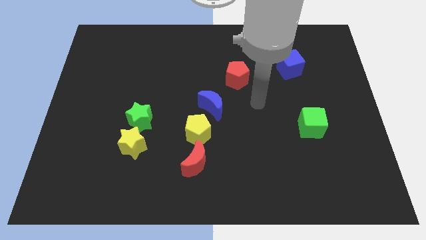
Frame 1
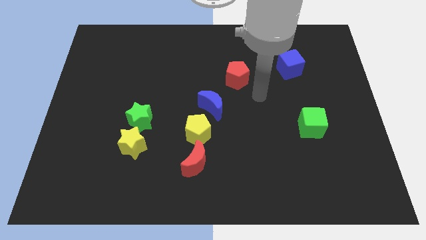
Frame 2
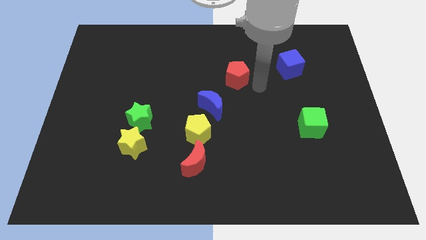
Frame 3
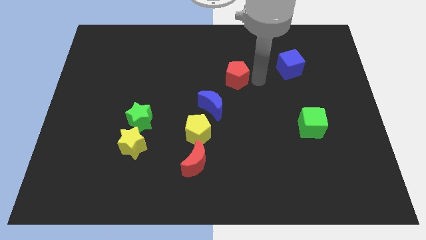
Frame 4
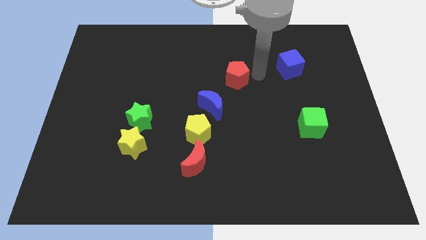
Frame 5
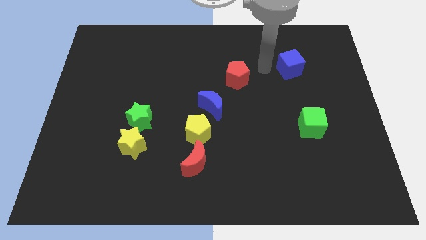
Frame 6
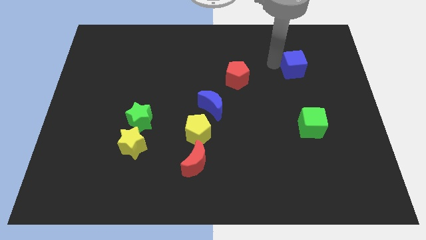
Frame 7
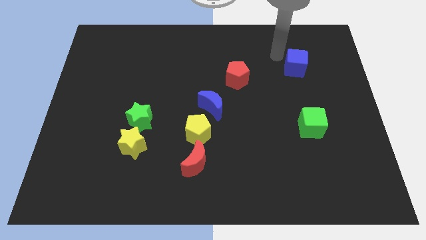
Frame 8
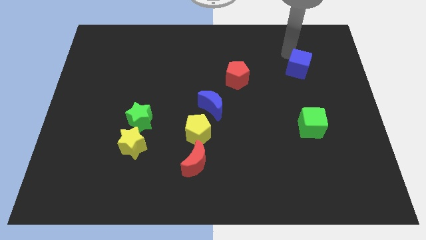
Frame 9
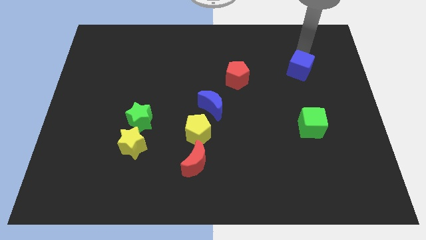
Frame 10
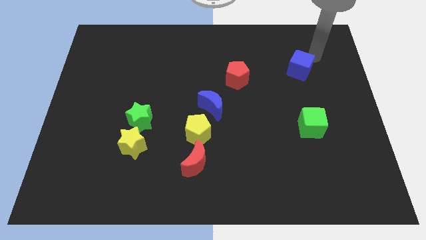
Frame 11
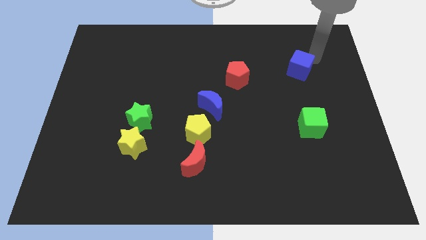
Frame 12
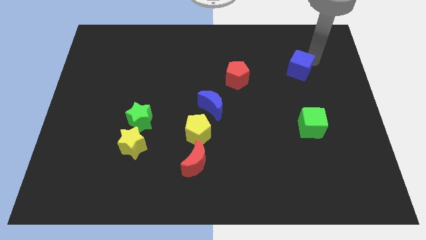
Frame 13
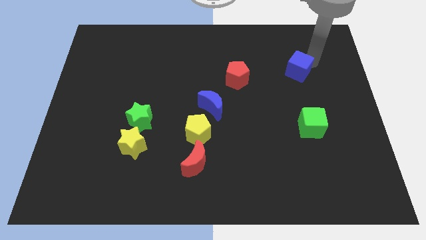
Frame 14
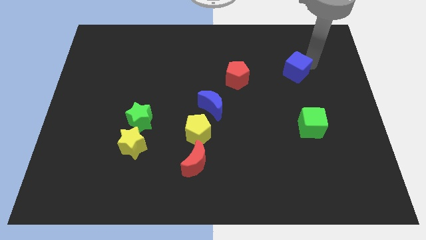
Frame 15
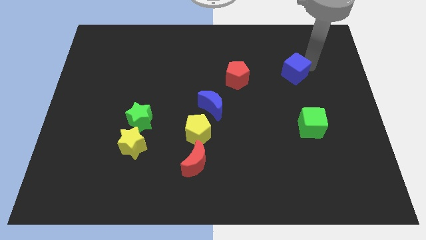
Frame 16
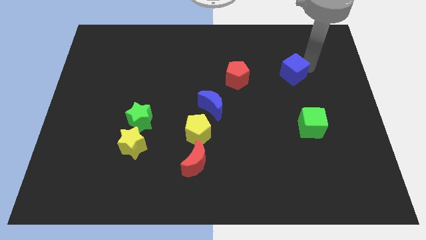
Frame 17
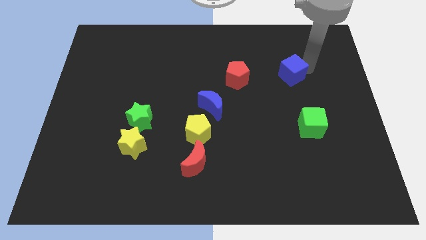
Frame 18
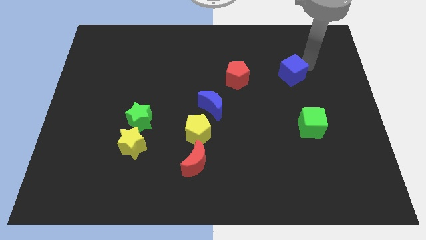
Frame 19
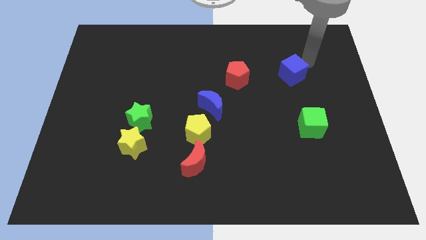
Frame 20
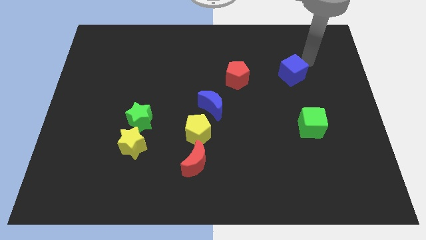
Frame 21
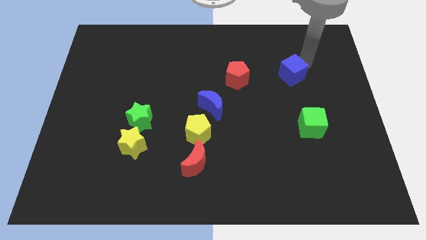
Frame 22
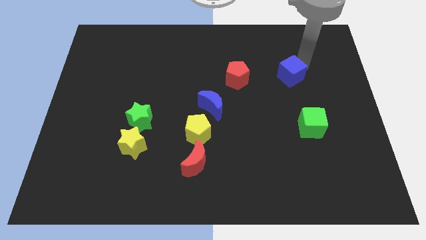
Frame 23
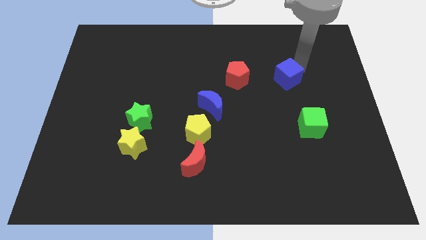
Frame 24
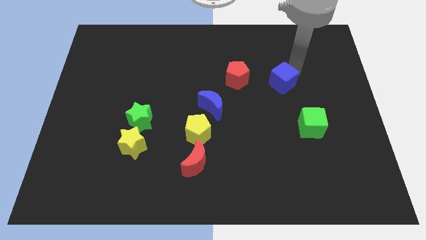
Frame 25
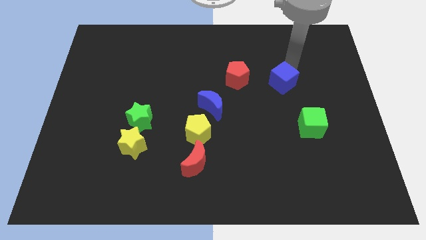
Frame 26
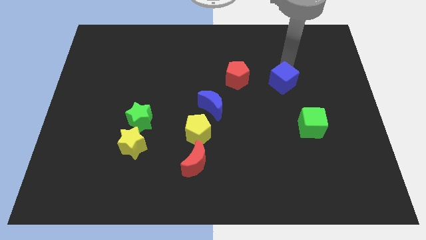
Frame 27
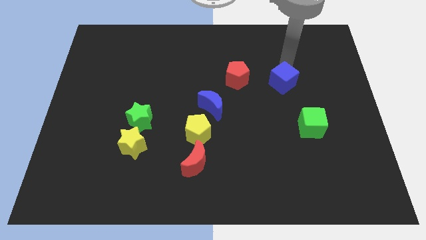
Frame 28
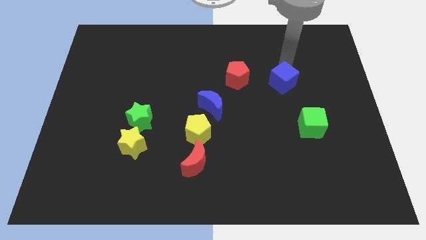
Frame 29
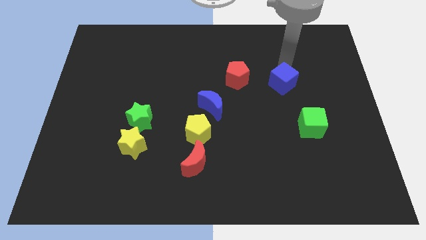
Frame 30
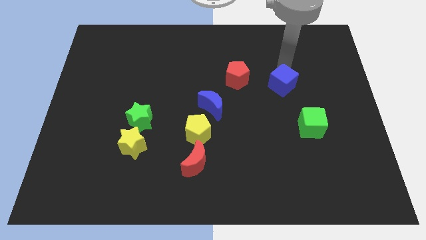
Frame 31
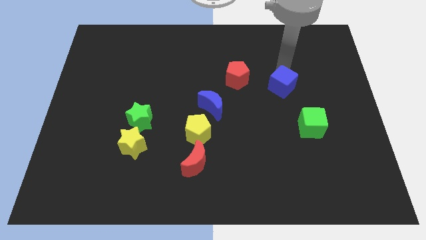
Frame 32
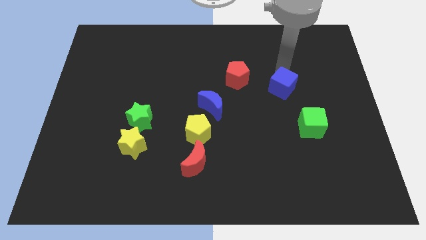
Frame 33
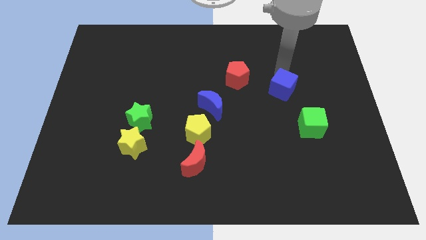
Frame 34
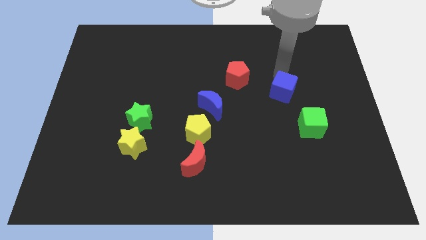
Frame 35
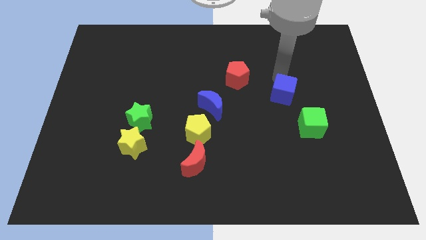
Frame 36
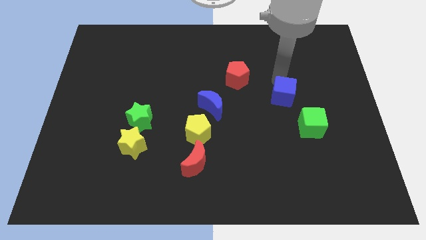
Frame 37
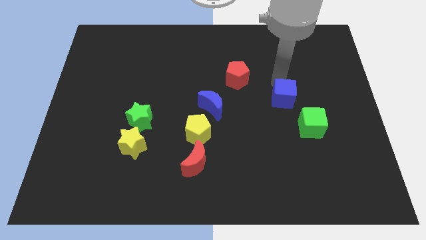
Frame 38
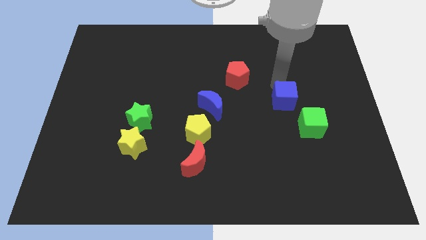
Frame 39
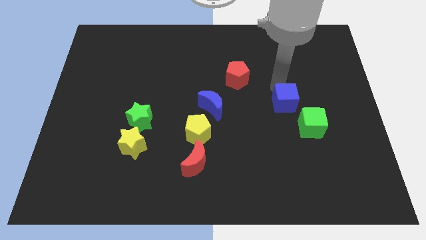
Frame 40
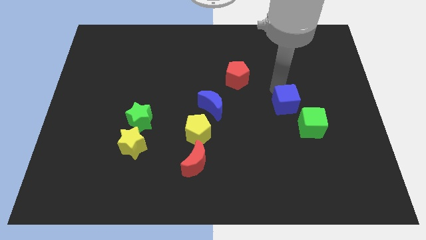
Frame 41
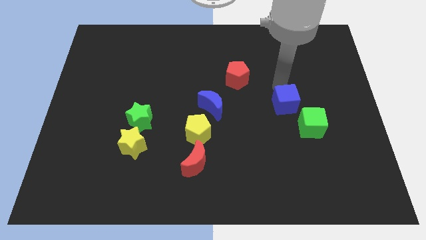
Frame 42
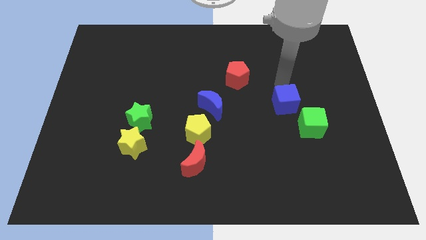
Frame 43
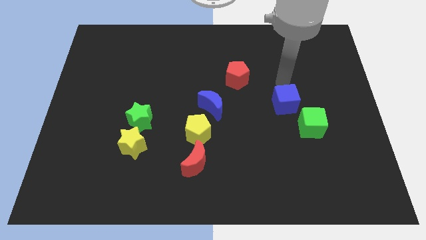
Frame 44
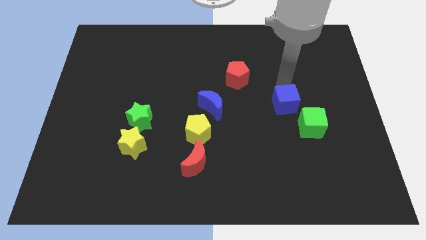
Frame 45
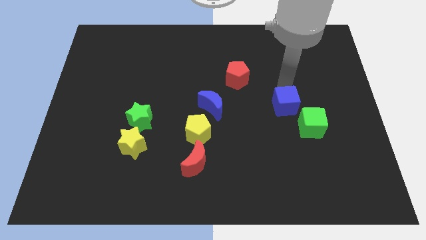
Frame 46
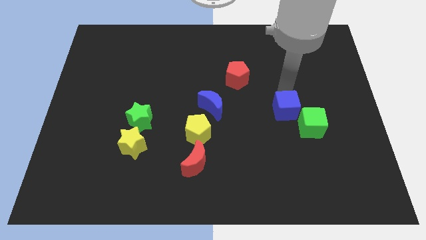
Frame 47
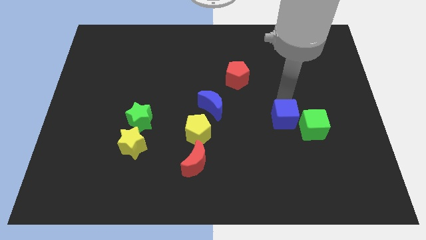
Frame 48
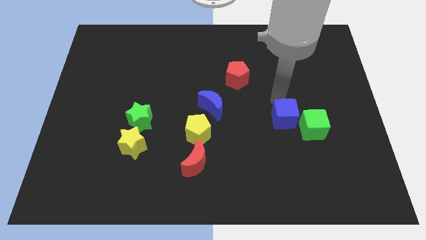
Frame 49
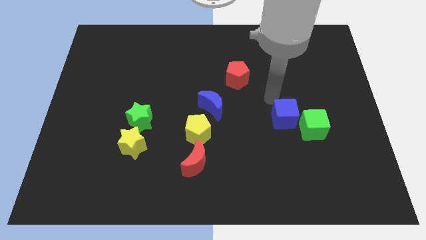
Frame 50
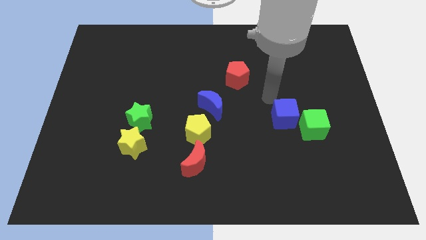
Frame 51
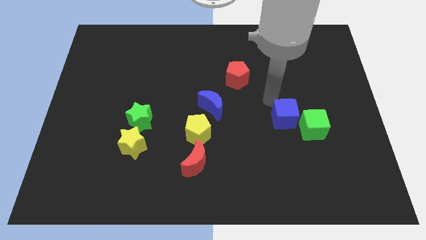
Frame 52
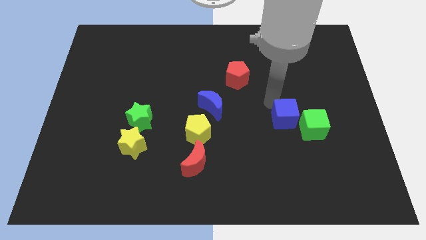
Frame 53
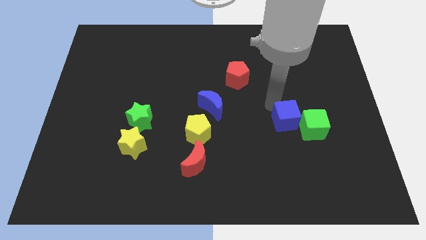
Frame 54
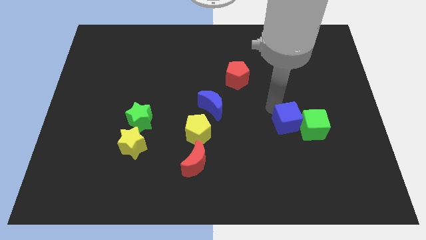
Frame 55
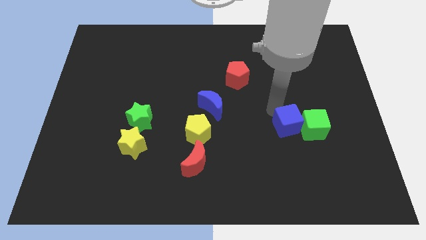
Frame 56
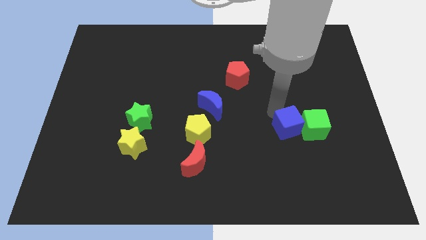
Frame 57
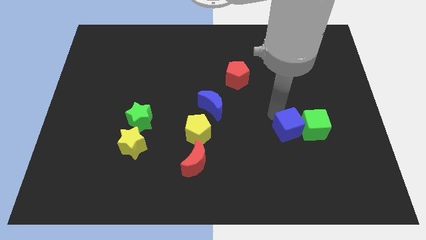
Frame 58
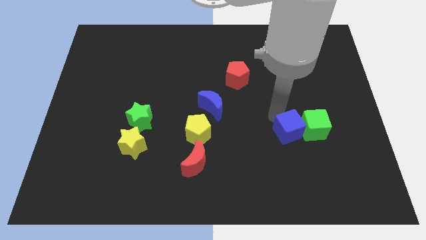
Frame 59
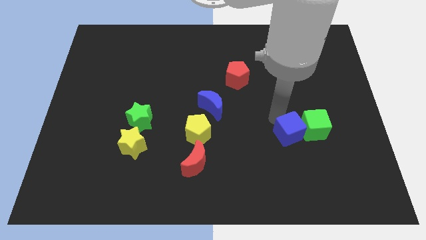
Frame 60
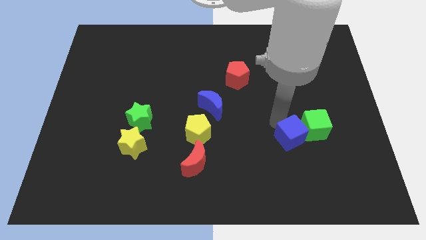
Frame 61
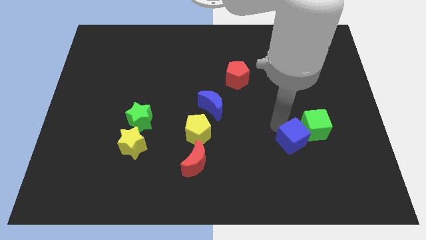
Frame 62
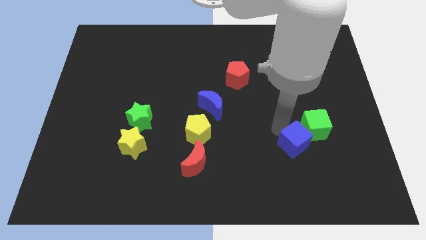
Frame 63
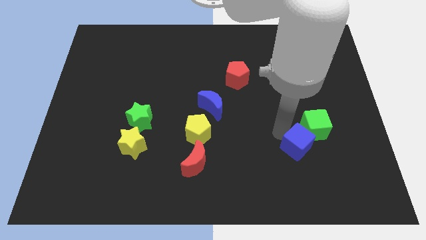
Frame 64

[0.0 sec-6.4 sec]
put the blue cube to the bottom of the green cube

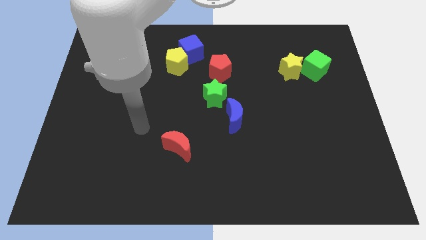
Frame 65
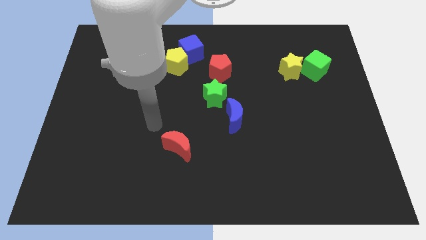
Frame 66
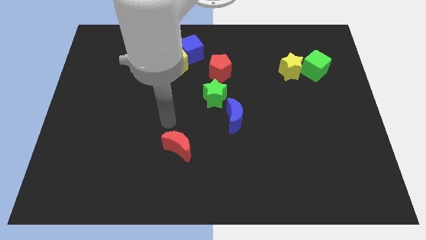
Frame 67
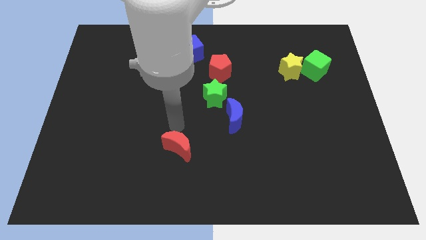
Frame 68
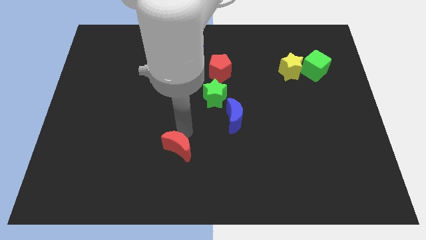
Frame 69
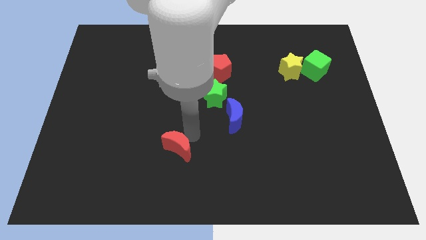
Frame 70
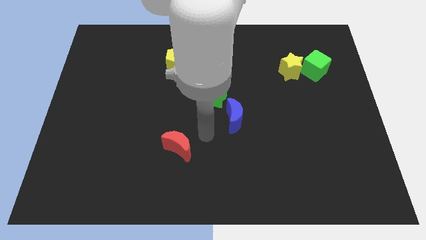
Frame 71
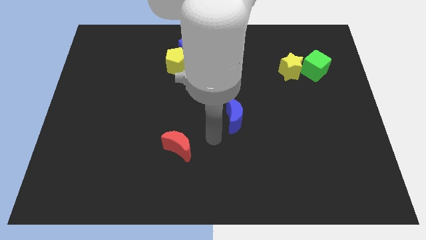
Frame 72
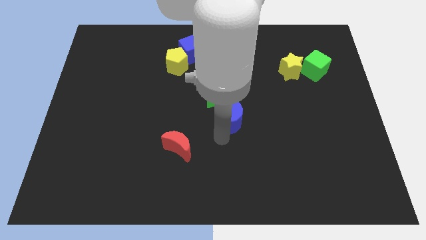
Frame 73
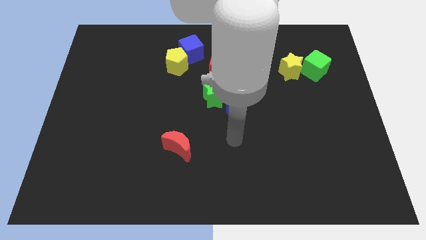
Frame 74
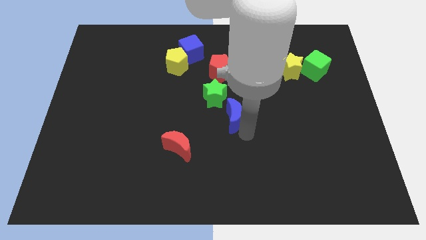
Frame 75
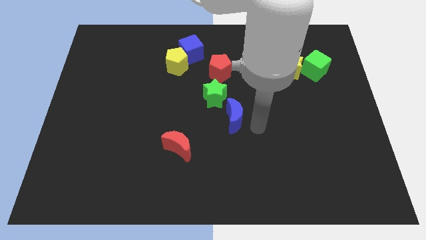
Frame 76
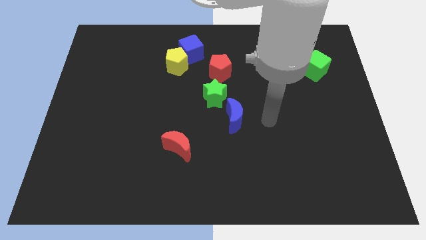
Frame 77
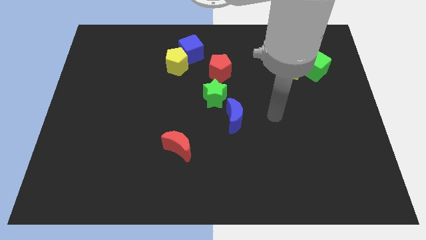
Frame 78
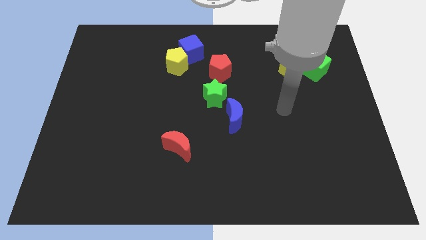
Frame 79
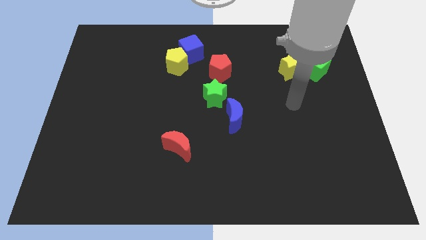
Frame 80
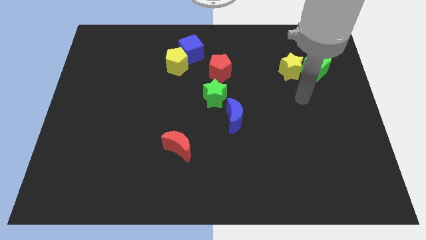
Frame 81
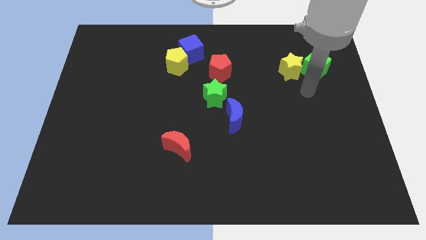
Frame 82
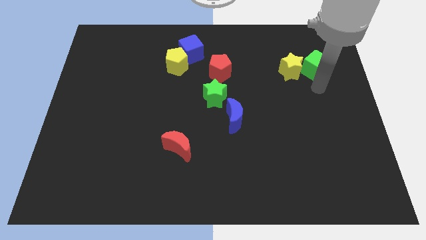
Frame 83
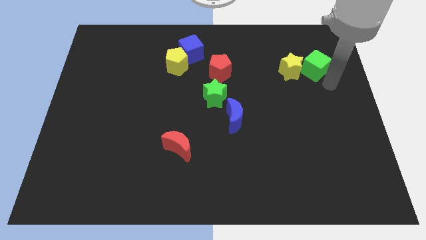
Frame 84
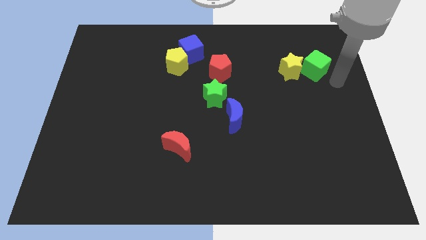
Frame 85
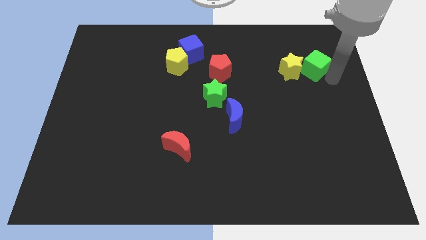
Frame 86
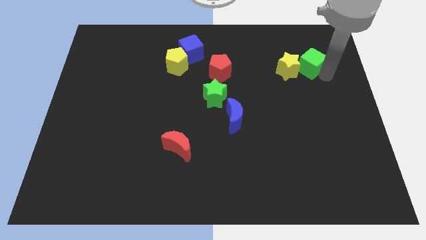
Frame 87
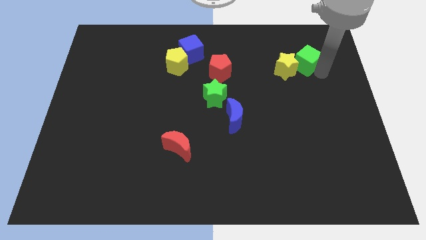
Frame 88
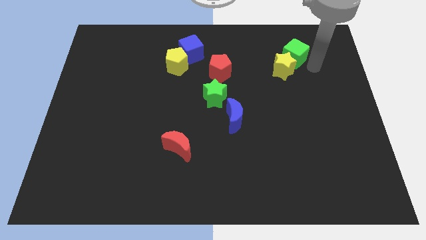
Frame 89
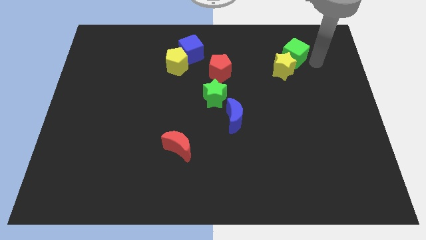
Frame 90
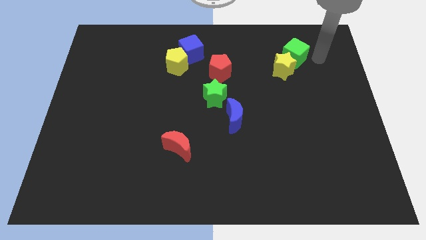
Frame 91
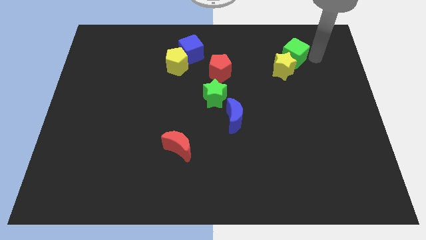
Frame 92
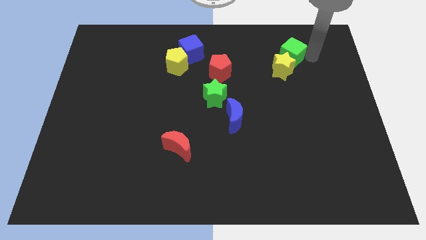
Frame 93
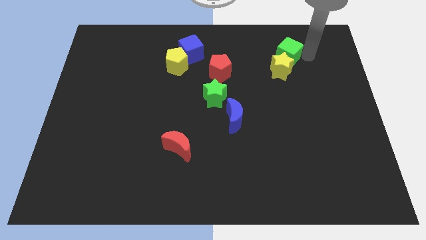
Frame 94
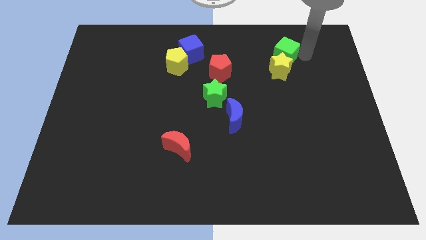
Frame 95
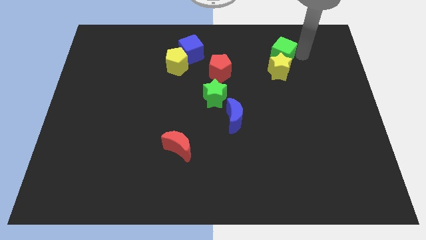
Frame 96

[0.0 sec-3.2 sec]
slide the green cube to the top left side of the yellow star
